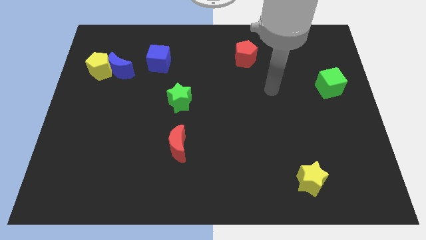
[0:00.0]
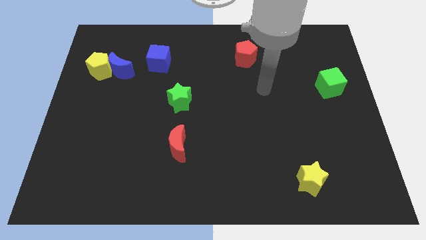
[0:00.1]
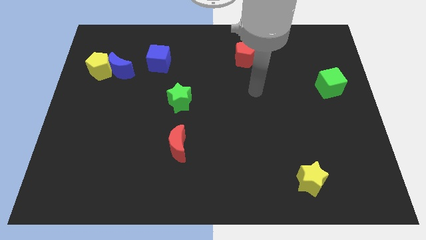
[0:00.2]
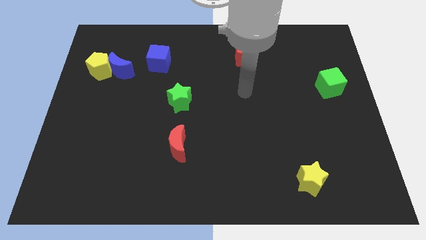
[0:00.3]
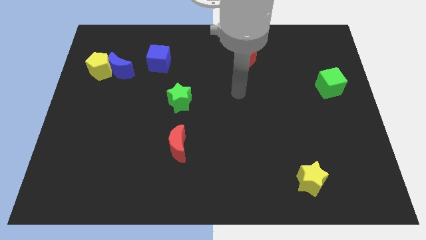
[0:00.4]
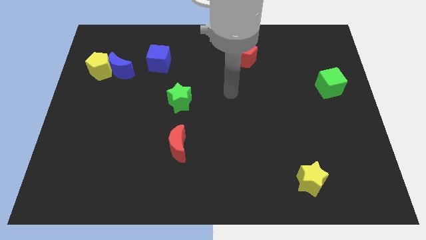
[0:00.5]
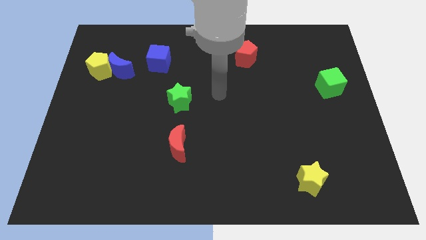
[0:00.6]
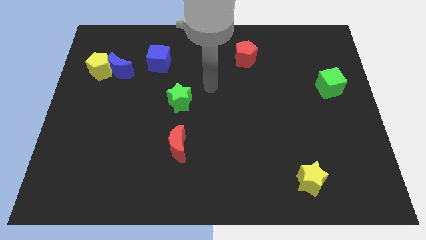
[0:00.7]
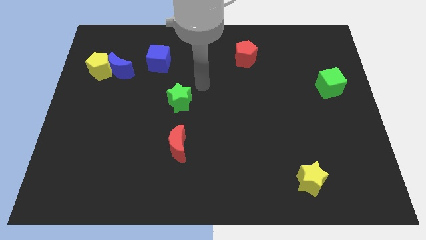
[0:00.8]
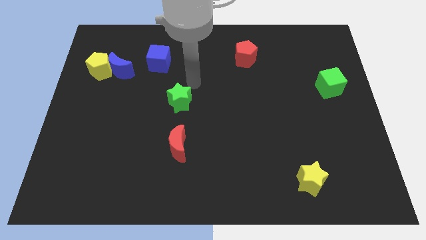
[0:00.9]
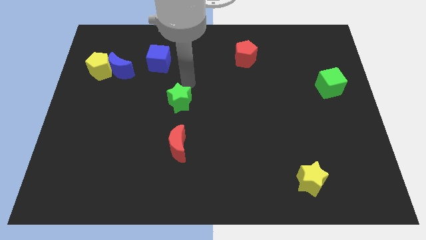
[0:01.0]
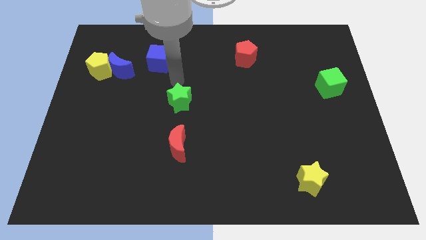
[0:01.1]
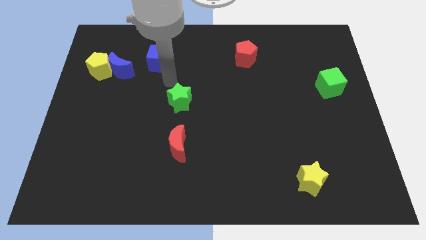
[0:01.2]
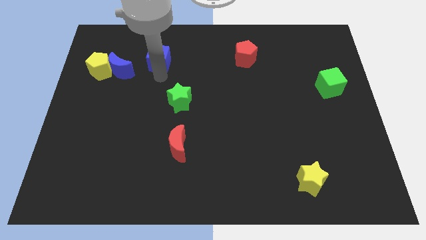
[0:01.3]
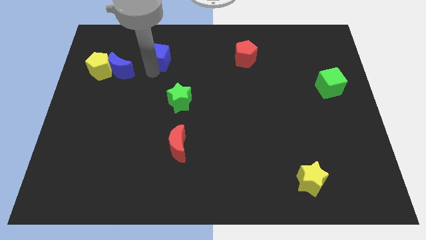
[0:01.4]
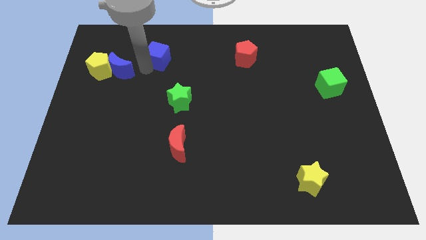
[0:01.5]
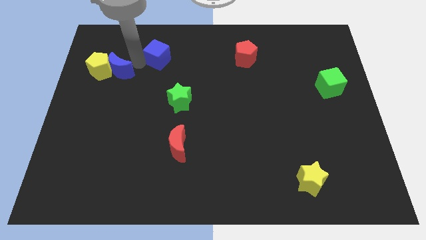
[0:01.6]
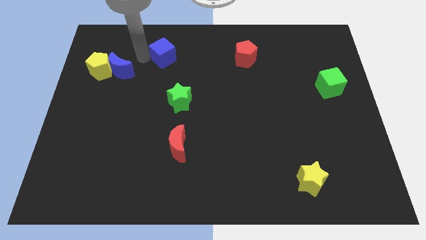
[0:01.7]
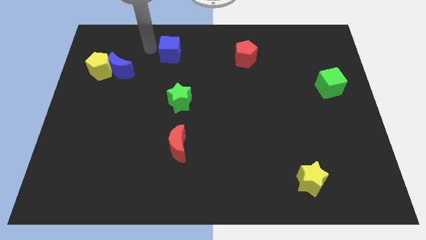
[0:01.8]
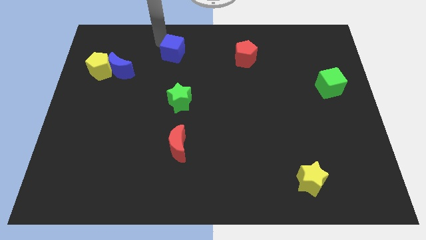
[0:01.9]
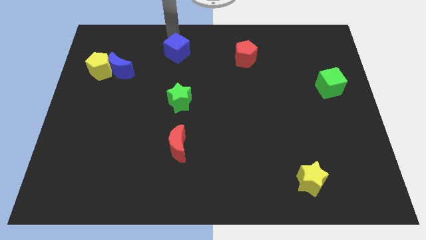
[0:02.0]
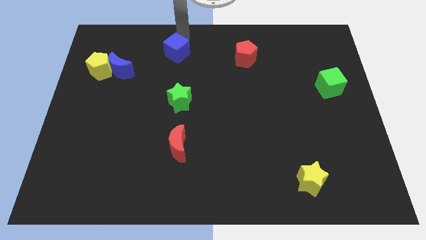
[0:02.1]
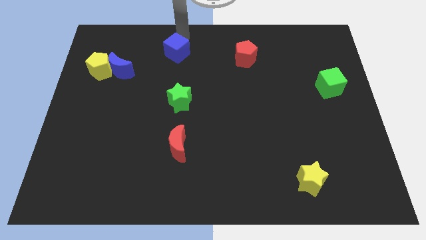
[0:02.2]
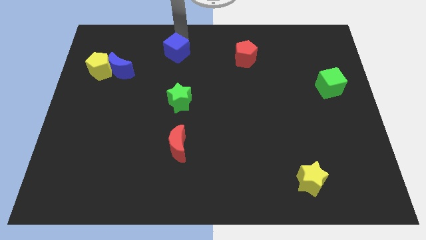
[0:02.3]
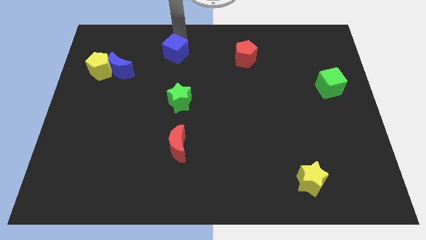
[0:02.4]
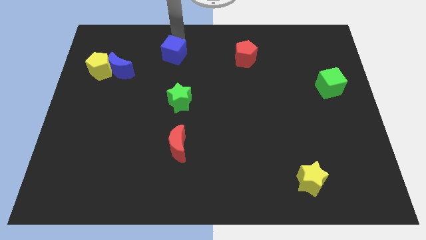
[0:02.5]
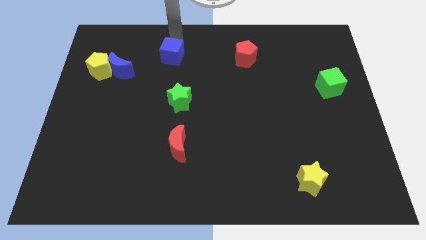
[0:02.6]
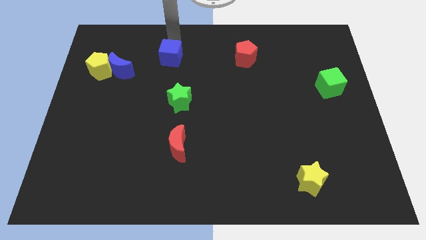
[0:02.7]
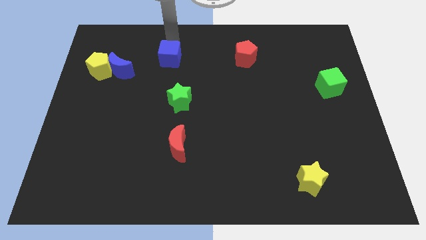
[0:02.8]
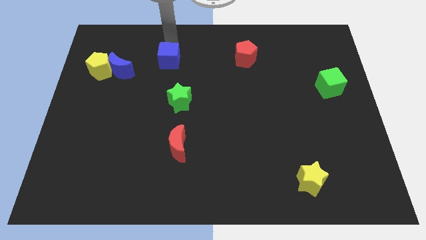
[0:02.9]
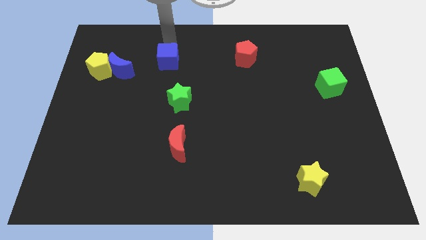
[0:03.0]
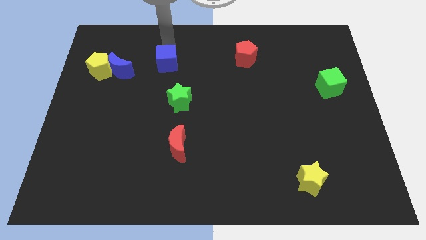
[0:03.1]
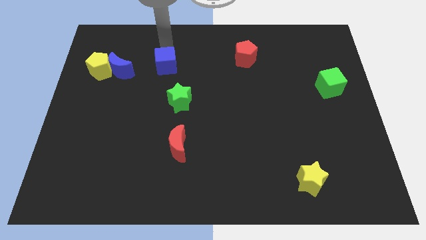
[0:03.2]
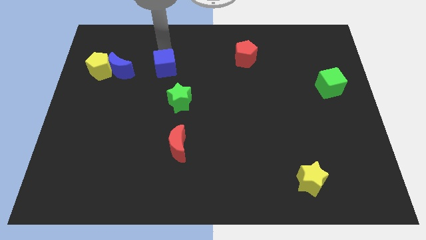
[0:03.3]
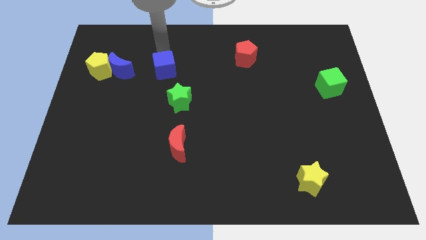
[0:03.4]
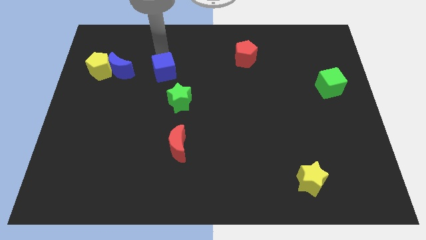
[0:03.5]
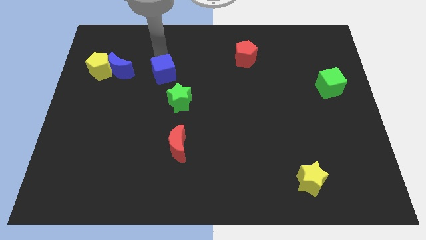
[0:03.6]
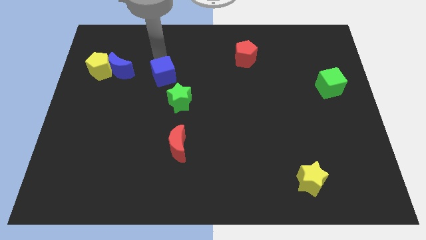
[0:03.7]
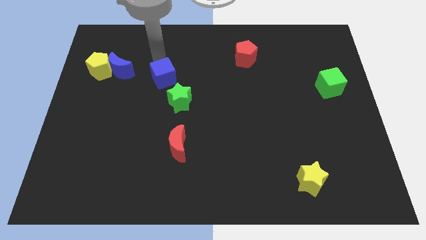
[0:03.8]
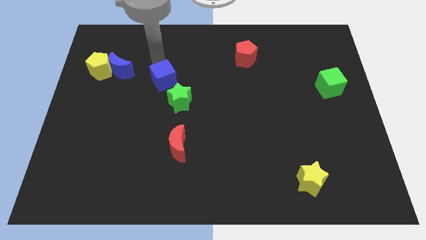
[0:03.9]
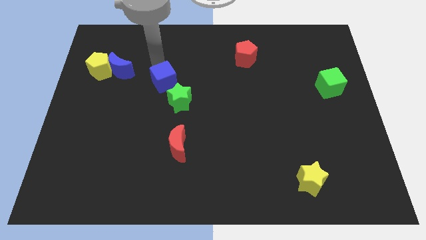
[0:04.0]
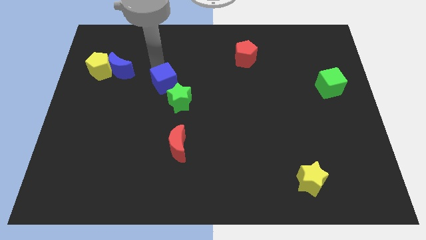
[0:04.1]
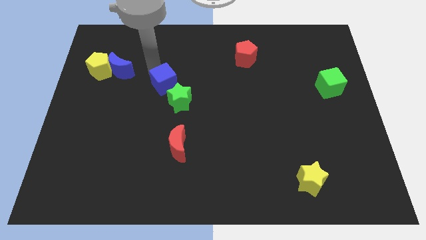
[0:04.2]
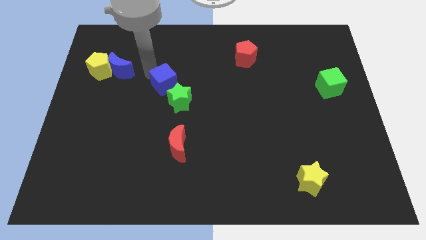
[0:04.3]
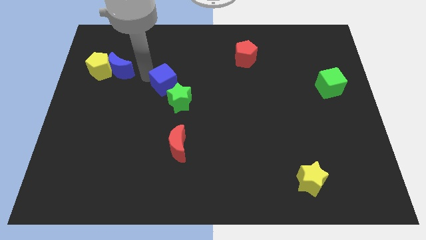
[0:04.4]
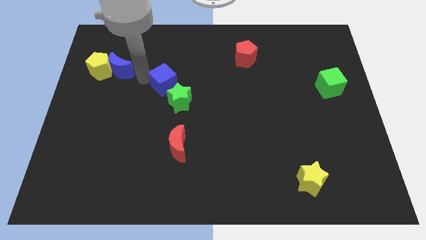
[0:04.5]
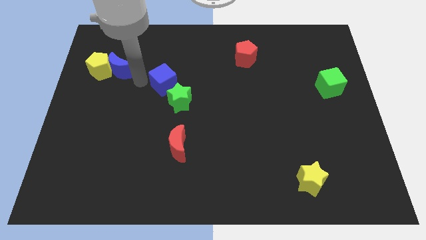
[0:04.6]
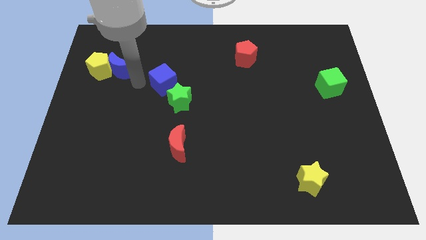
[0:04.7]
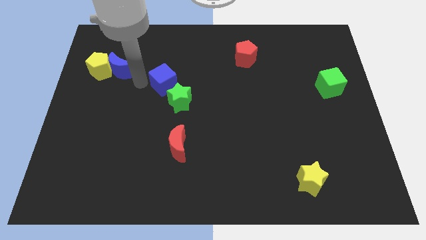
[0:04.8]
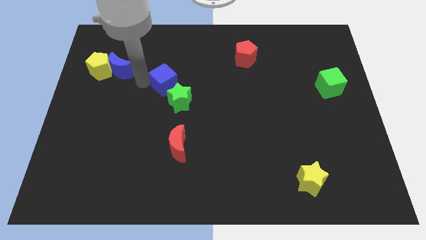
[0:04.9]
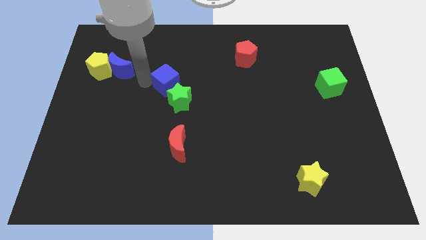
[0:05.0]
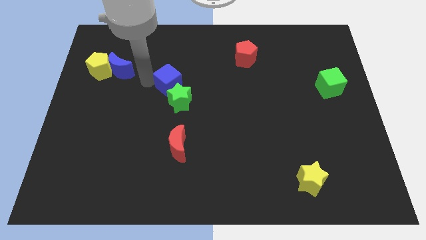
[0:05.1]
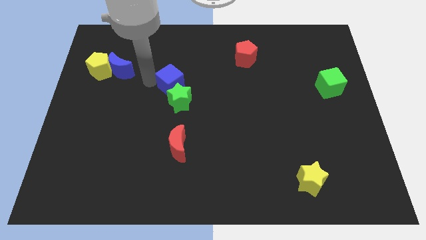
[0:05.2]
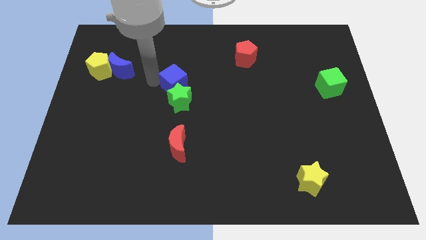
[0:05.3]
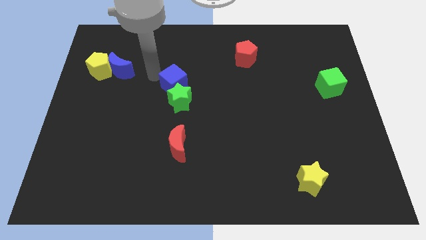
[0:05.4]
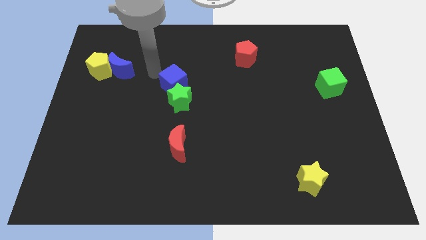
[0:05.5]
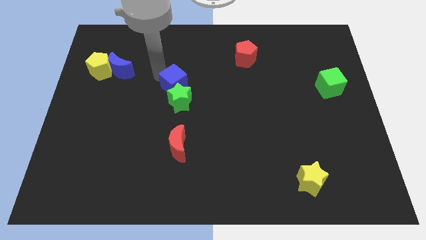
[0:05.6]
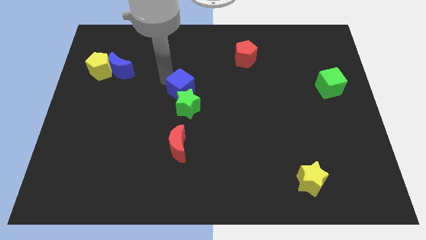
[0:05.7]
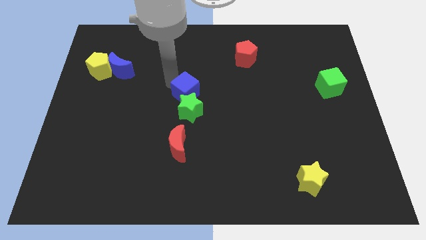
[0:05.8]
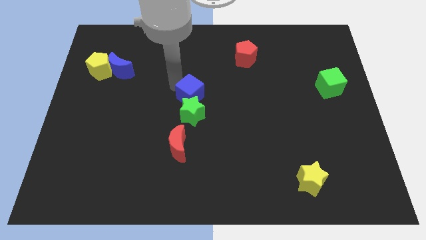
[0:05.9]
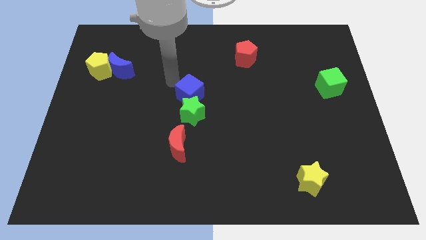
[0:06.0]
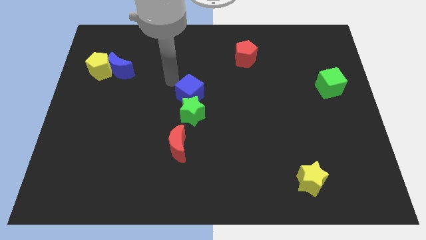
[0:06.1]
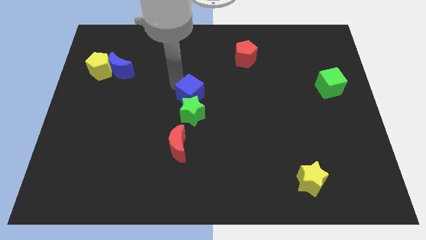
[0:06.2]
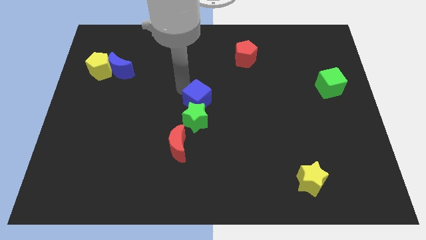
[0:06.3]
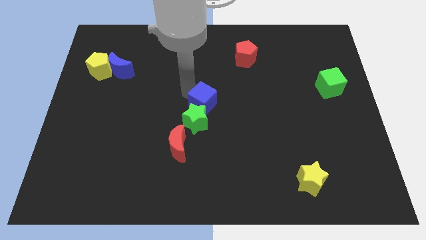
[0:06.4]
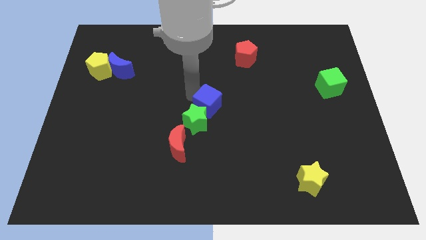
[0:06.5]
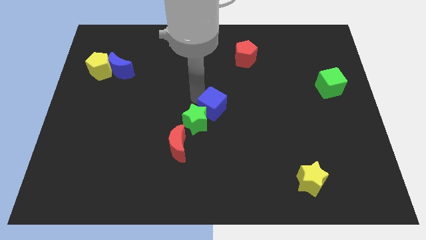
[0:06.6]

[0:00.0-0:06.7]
move the blue cube down and then right

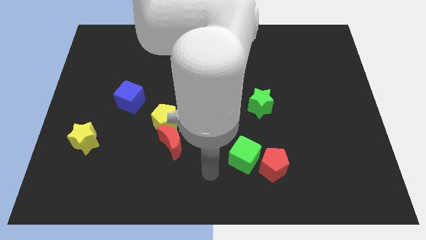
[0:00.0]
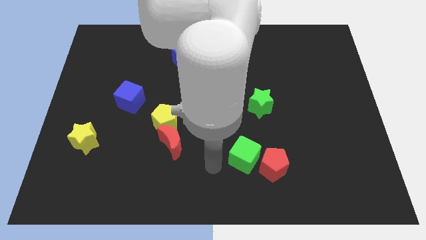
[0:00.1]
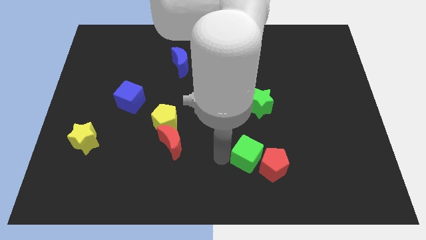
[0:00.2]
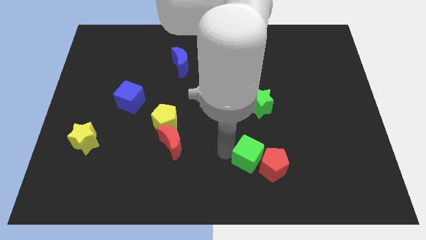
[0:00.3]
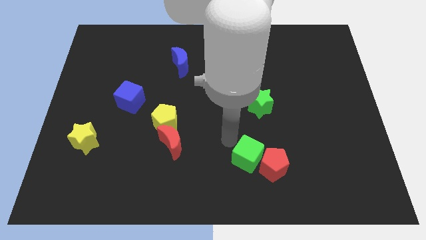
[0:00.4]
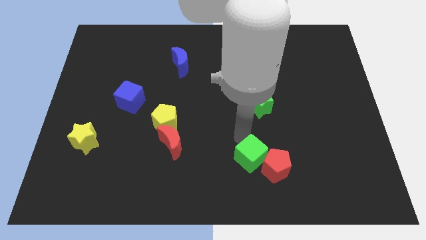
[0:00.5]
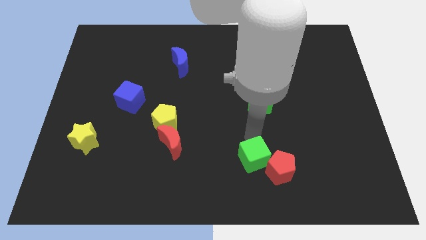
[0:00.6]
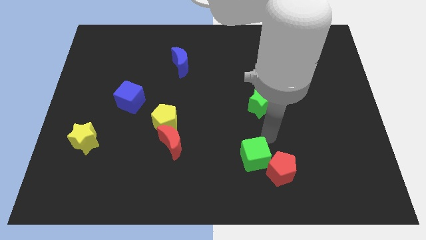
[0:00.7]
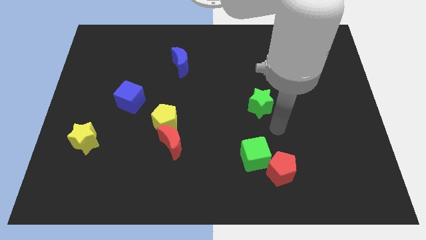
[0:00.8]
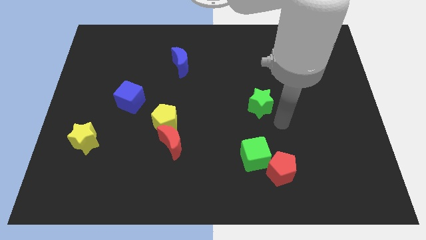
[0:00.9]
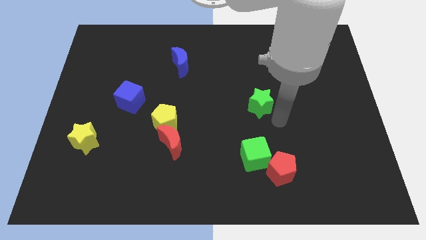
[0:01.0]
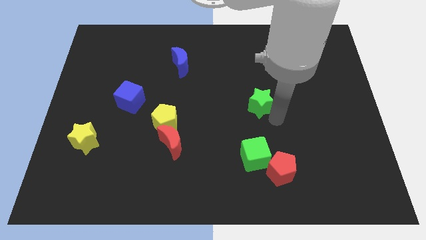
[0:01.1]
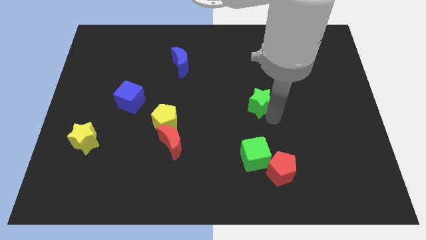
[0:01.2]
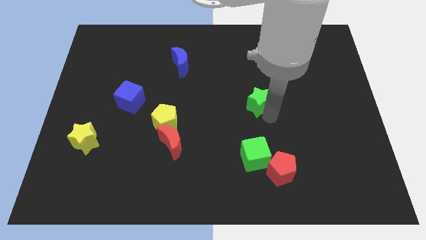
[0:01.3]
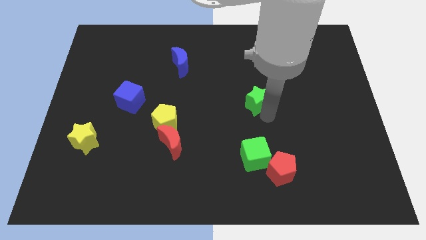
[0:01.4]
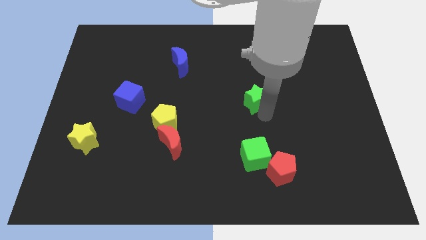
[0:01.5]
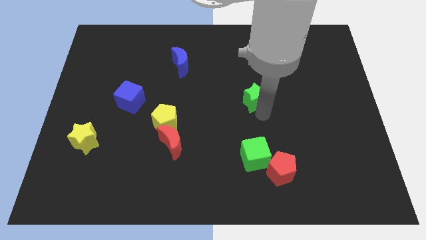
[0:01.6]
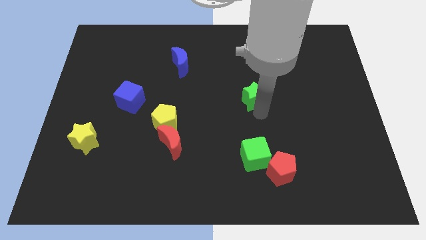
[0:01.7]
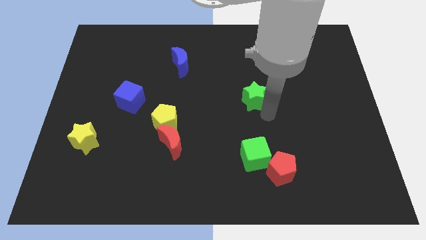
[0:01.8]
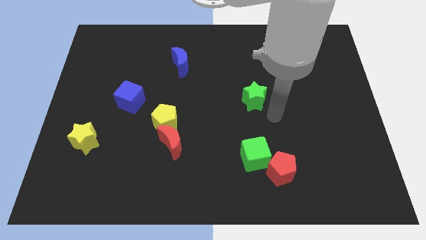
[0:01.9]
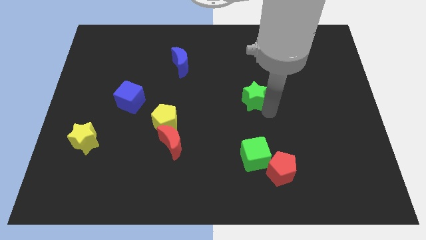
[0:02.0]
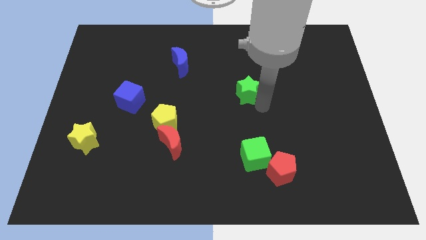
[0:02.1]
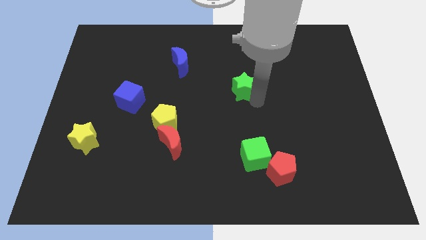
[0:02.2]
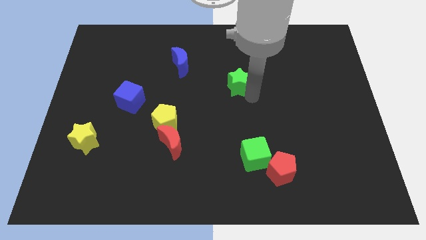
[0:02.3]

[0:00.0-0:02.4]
slightly move the green star up and left
